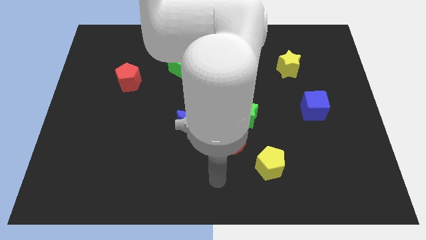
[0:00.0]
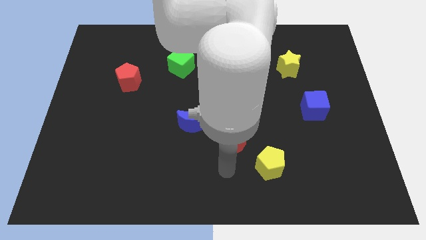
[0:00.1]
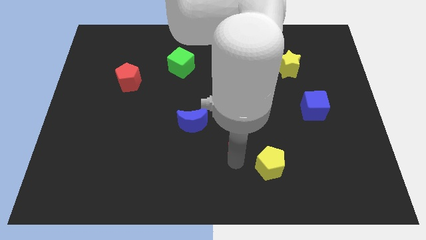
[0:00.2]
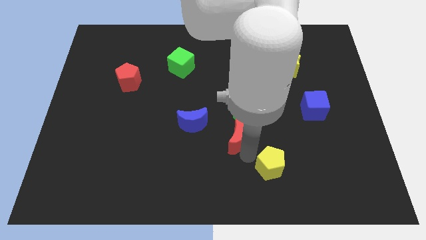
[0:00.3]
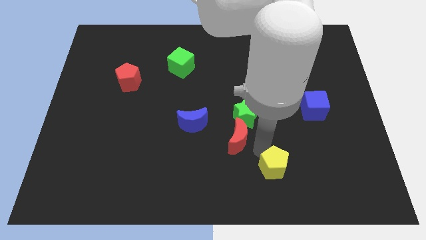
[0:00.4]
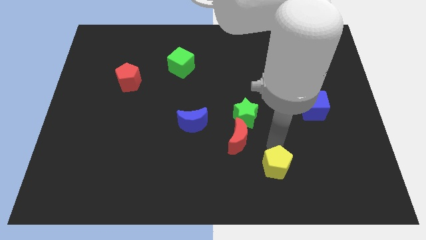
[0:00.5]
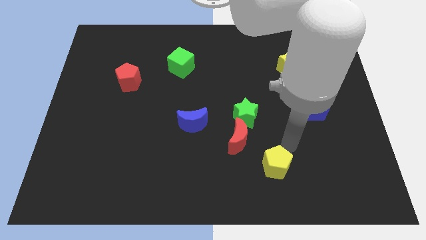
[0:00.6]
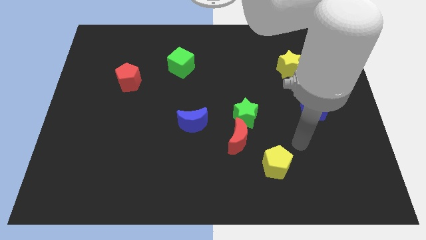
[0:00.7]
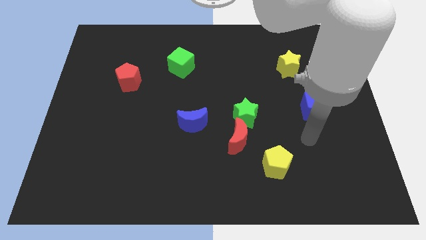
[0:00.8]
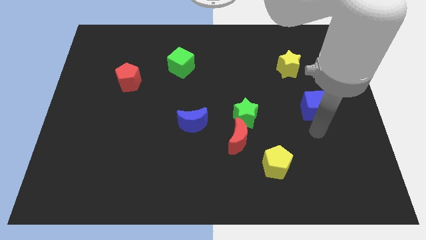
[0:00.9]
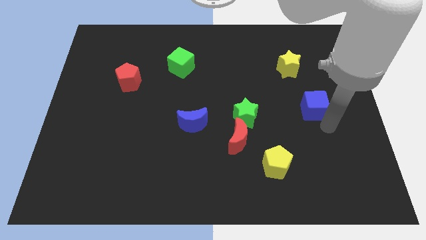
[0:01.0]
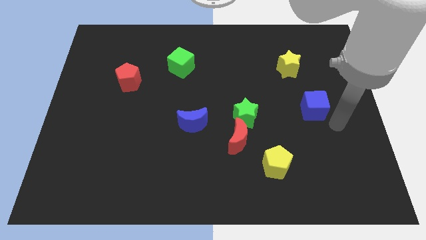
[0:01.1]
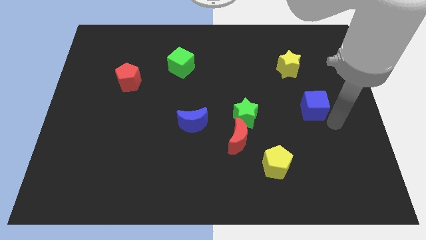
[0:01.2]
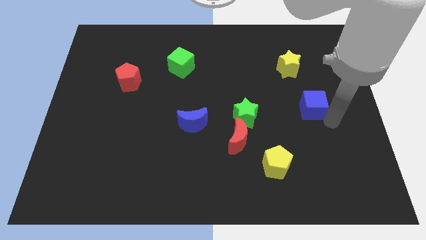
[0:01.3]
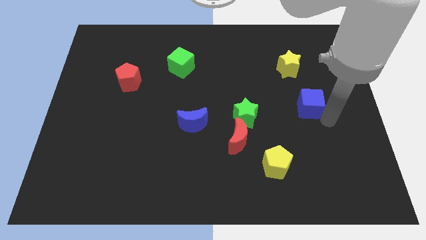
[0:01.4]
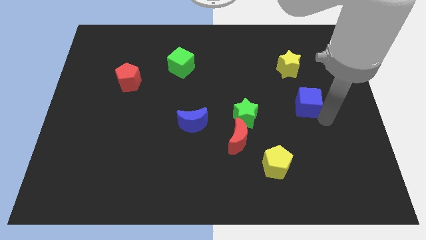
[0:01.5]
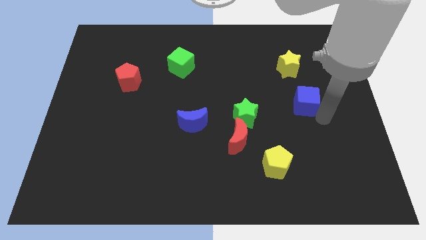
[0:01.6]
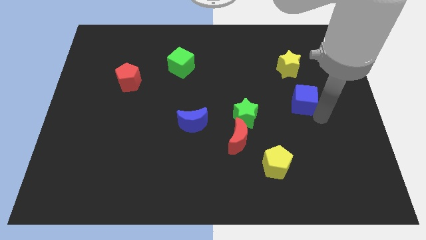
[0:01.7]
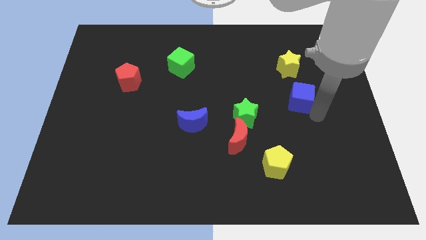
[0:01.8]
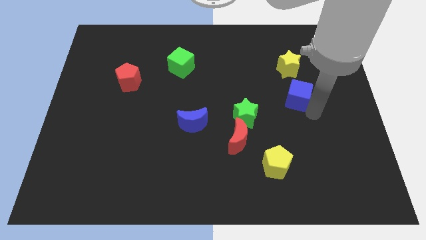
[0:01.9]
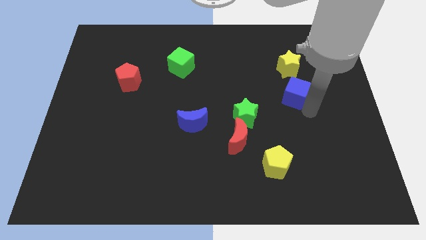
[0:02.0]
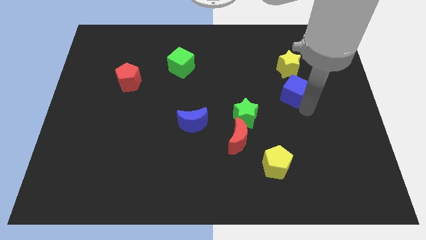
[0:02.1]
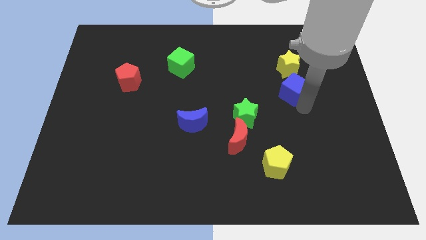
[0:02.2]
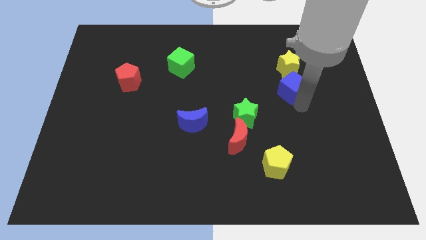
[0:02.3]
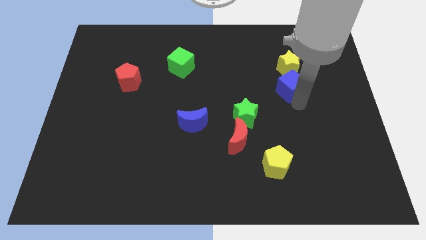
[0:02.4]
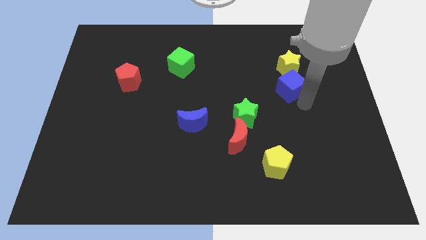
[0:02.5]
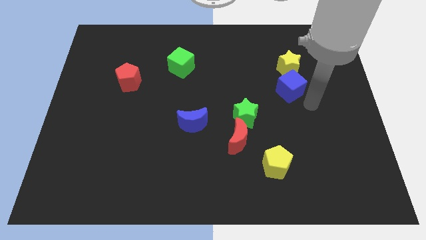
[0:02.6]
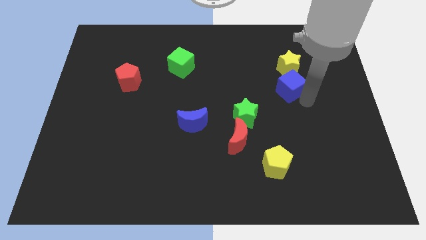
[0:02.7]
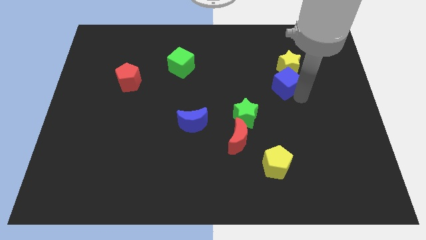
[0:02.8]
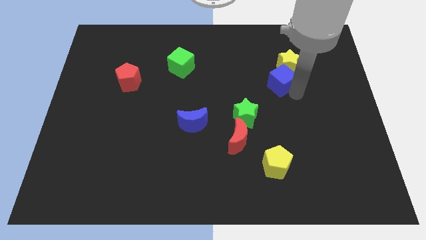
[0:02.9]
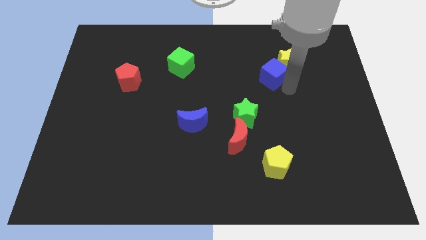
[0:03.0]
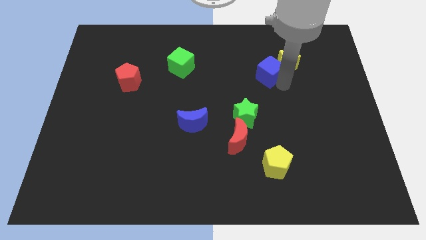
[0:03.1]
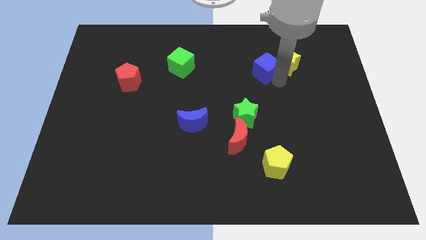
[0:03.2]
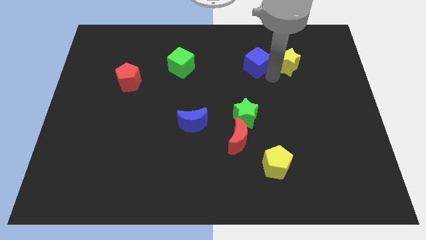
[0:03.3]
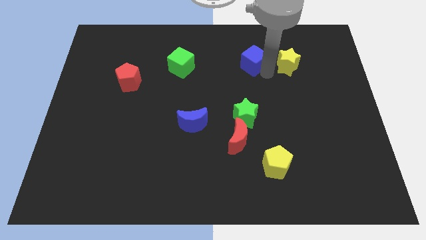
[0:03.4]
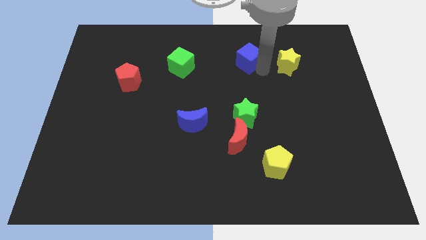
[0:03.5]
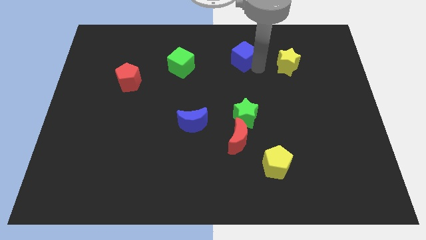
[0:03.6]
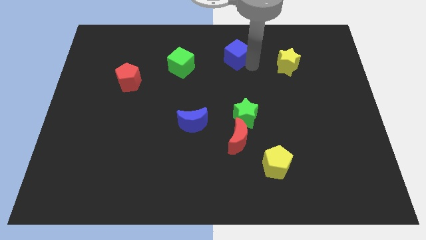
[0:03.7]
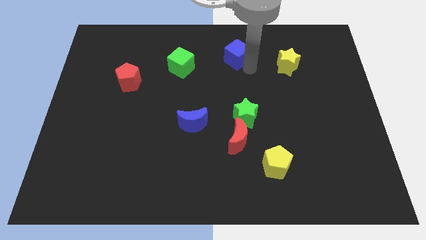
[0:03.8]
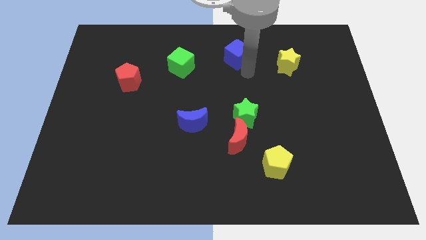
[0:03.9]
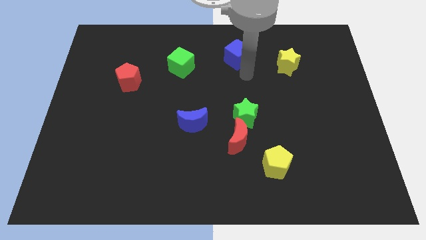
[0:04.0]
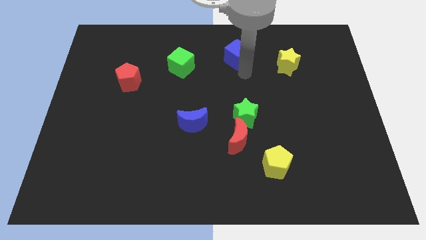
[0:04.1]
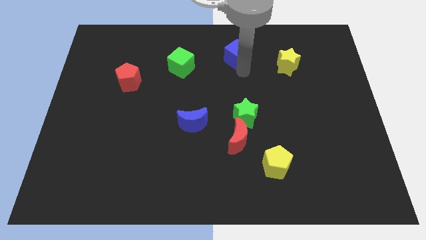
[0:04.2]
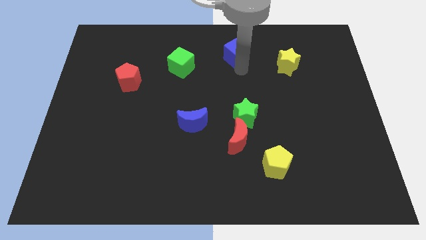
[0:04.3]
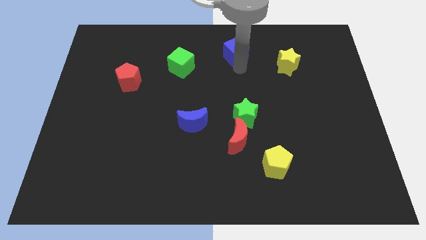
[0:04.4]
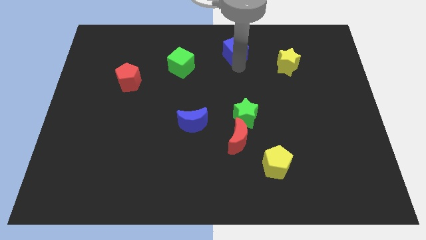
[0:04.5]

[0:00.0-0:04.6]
push the blue cube to the top side

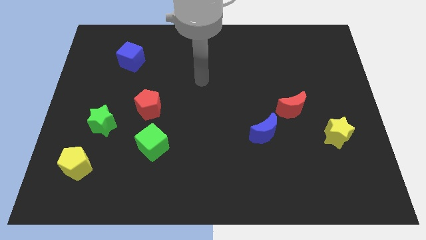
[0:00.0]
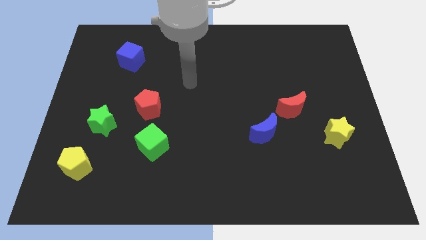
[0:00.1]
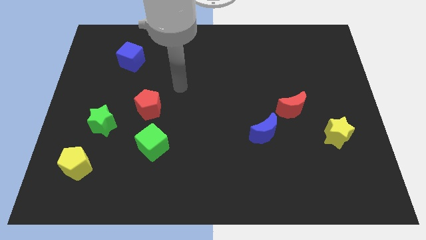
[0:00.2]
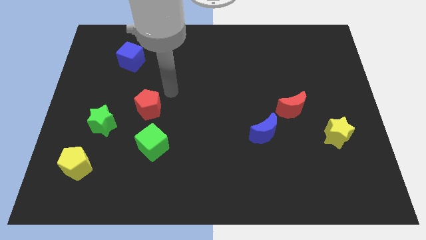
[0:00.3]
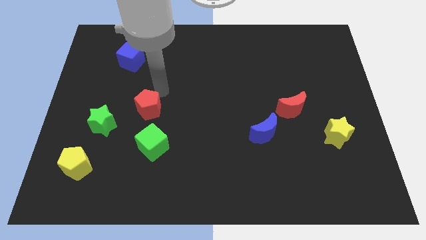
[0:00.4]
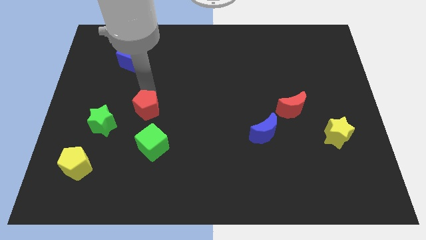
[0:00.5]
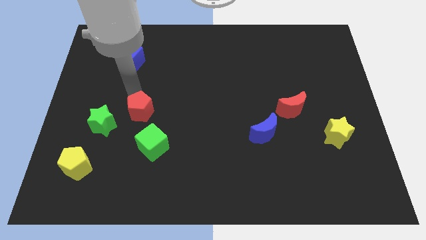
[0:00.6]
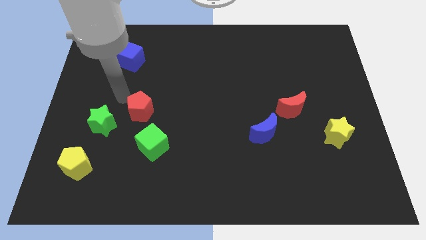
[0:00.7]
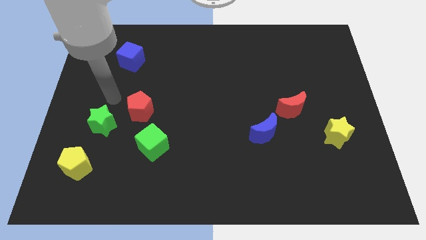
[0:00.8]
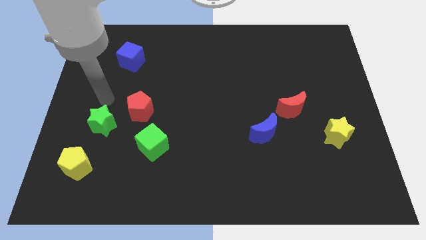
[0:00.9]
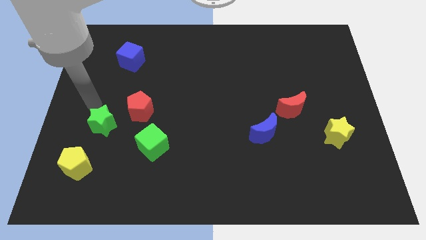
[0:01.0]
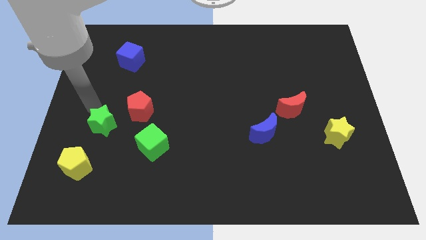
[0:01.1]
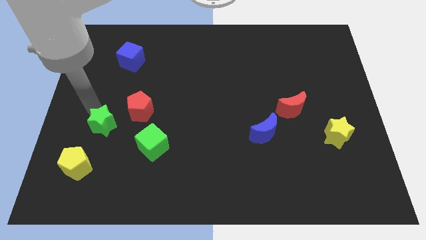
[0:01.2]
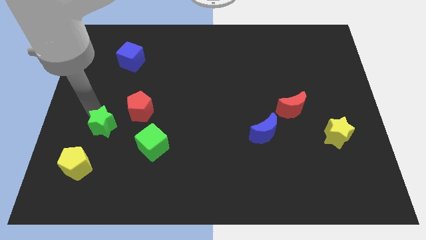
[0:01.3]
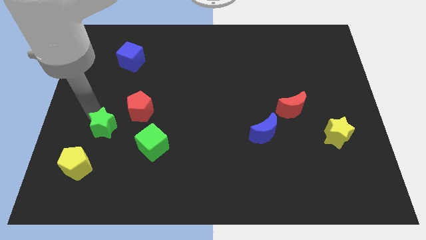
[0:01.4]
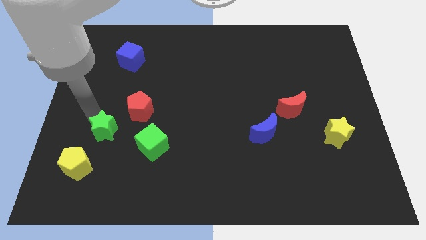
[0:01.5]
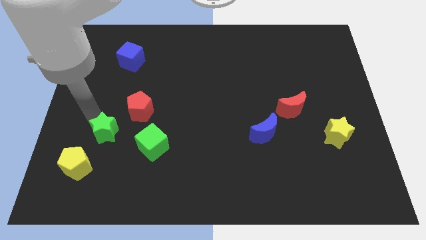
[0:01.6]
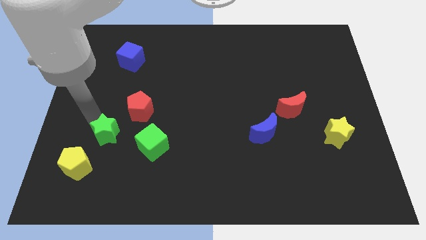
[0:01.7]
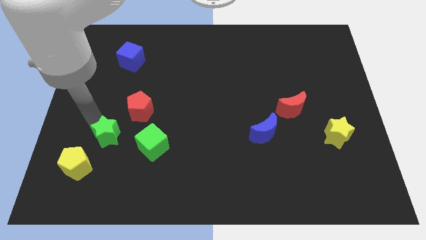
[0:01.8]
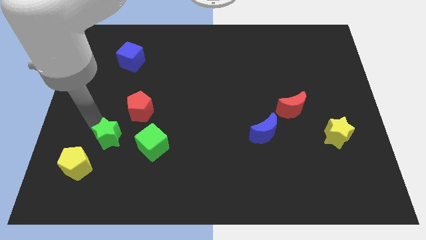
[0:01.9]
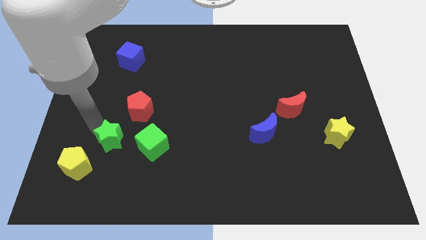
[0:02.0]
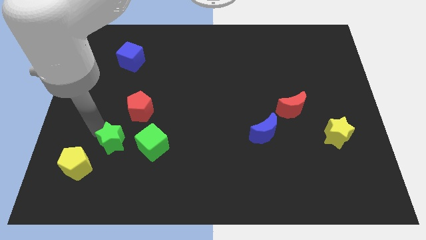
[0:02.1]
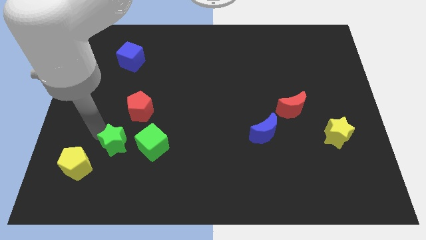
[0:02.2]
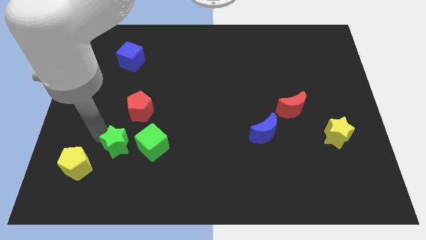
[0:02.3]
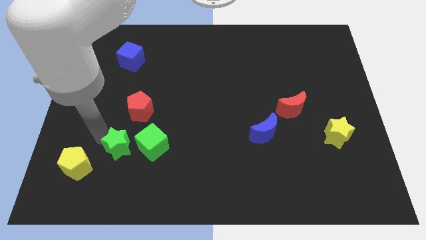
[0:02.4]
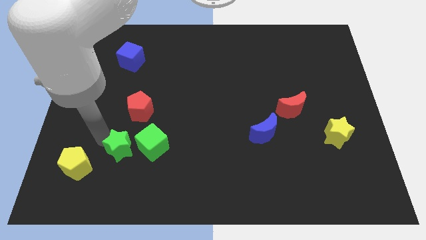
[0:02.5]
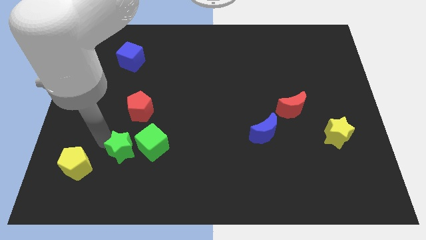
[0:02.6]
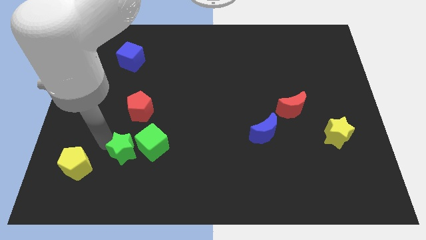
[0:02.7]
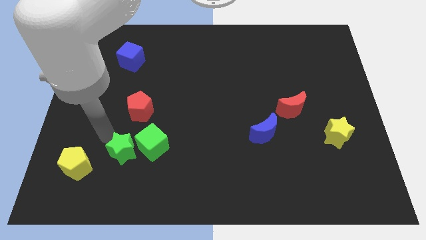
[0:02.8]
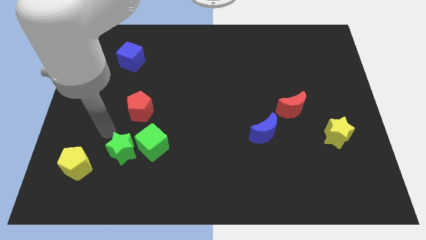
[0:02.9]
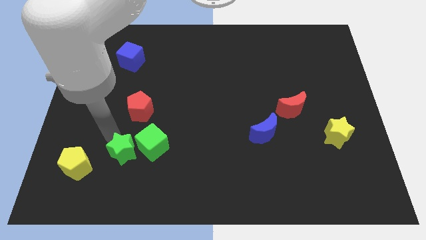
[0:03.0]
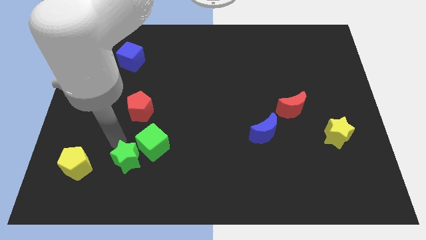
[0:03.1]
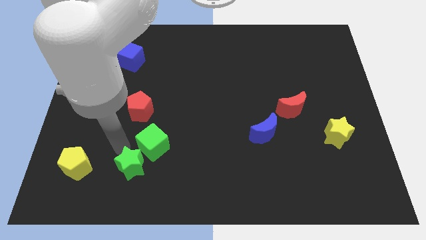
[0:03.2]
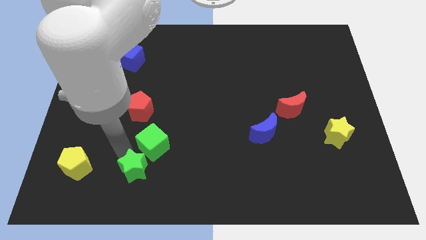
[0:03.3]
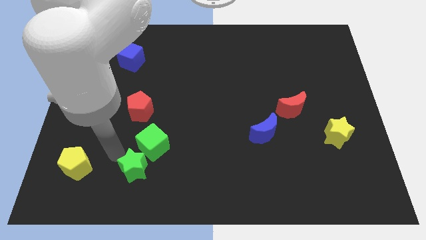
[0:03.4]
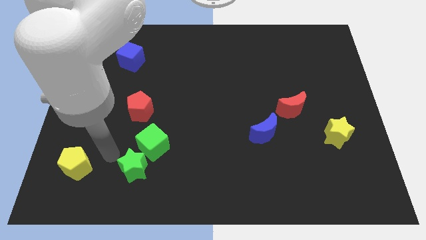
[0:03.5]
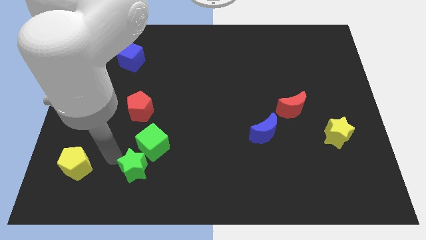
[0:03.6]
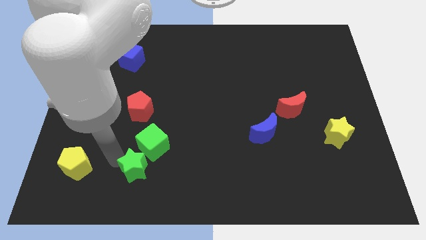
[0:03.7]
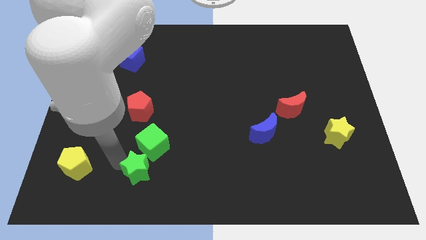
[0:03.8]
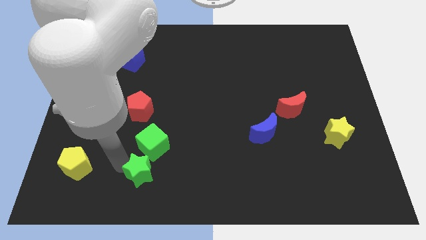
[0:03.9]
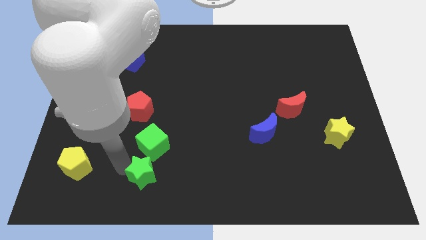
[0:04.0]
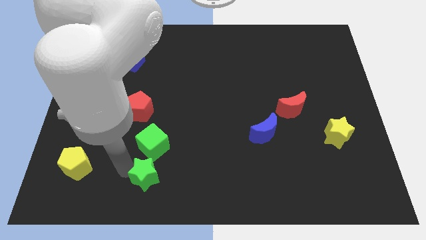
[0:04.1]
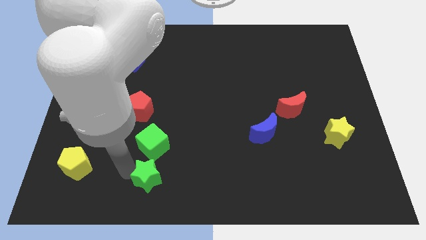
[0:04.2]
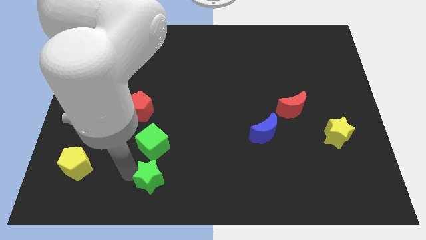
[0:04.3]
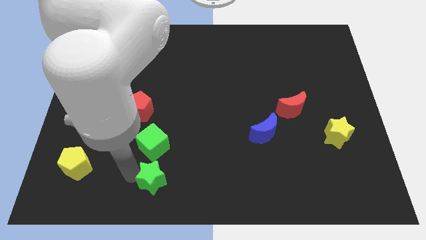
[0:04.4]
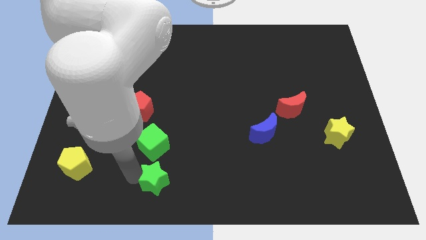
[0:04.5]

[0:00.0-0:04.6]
push the green star to the bottom side
